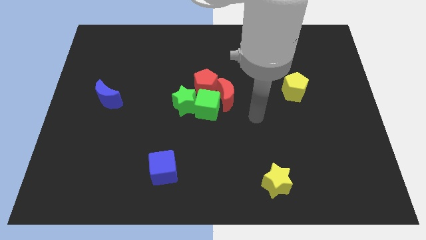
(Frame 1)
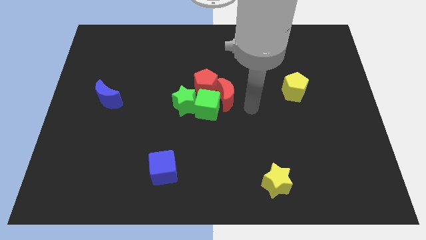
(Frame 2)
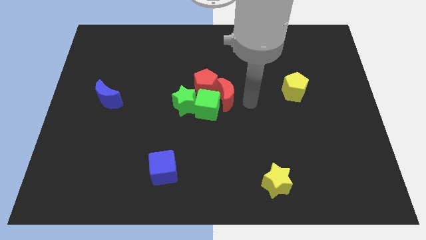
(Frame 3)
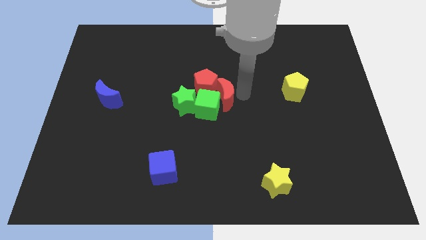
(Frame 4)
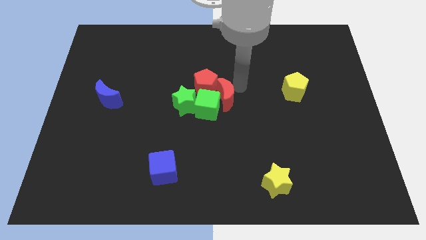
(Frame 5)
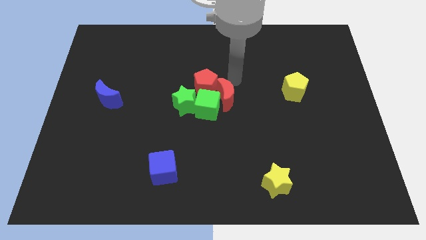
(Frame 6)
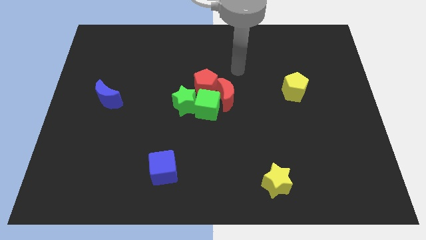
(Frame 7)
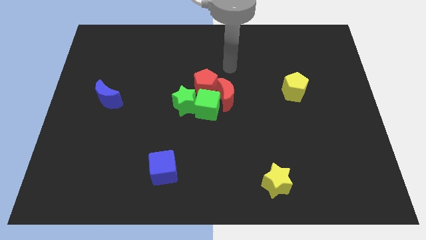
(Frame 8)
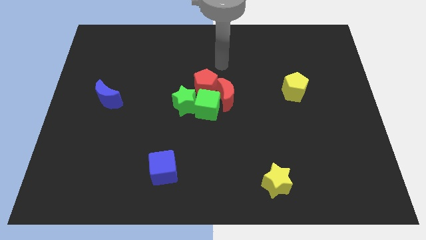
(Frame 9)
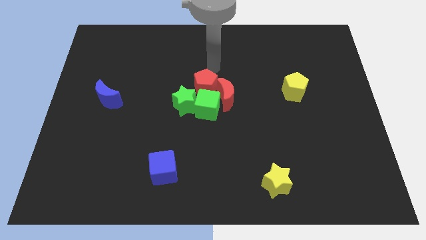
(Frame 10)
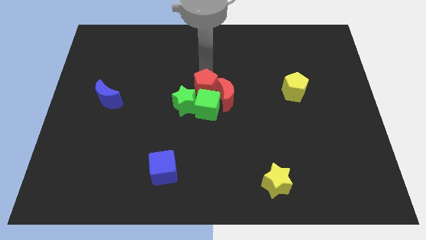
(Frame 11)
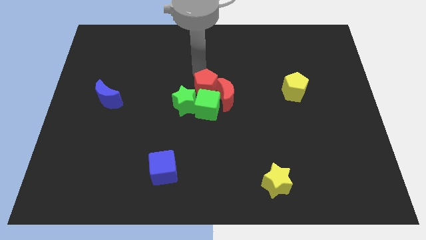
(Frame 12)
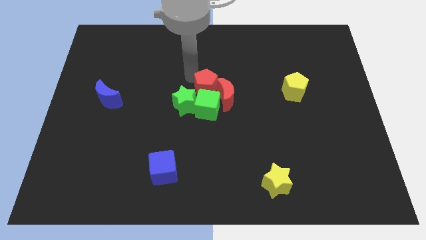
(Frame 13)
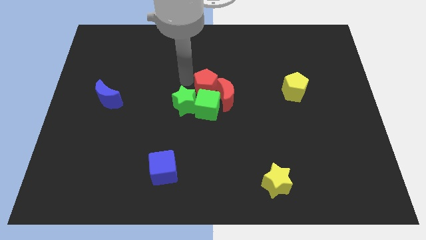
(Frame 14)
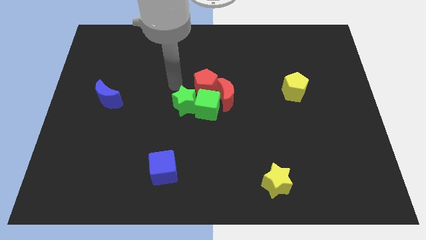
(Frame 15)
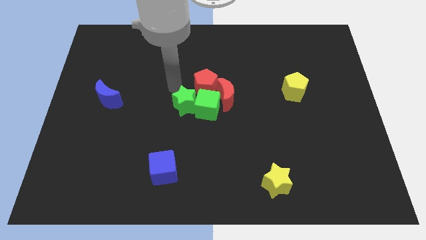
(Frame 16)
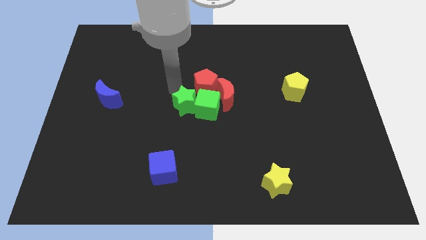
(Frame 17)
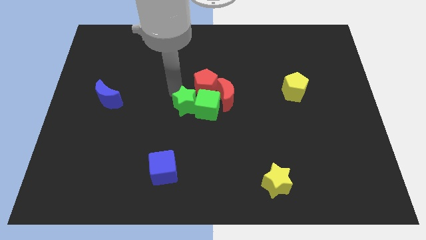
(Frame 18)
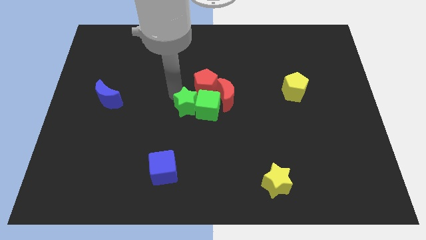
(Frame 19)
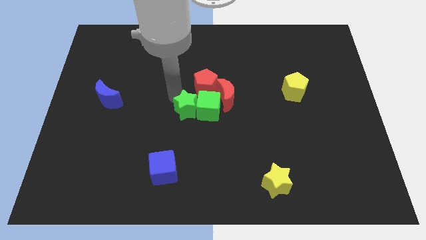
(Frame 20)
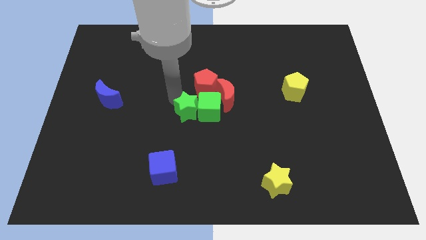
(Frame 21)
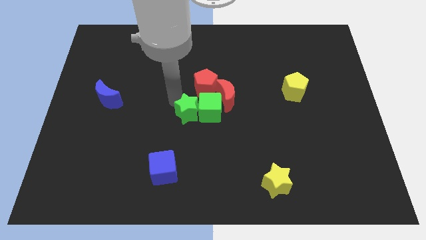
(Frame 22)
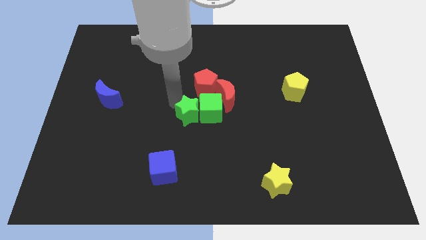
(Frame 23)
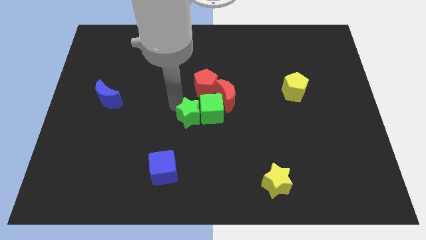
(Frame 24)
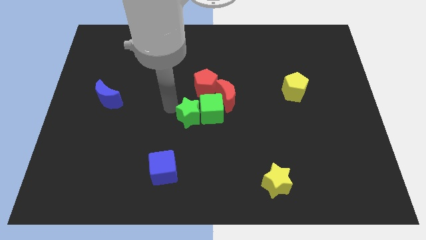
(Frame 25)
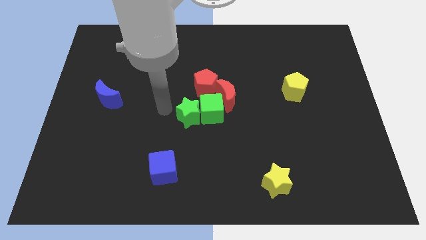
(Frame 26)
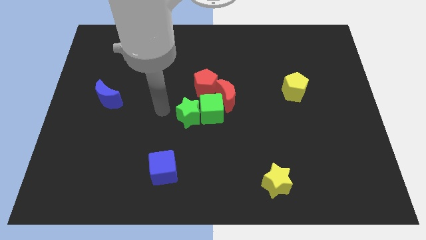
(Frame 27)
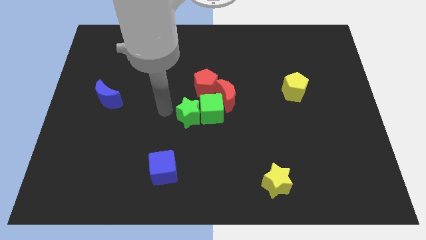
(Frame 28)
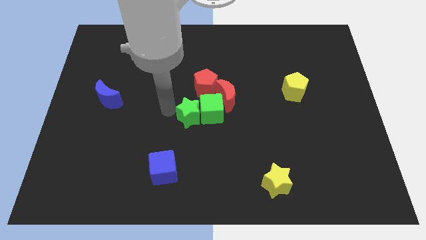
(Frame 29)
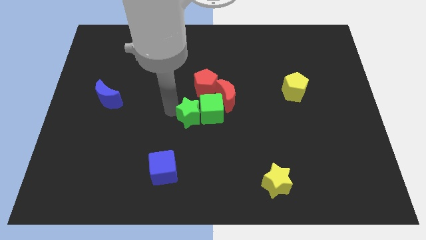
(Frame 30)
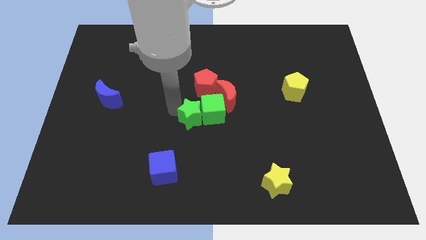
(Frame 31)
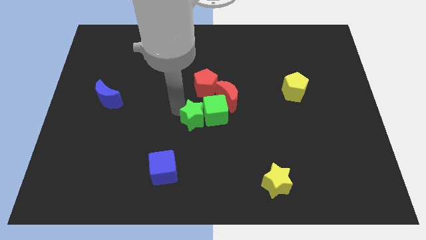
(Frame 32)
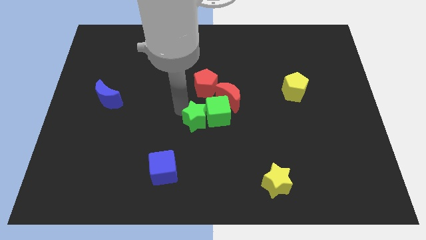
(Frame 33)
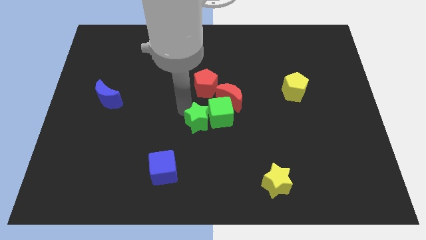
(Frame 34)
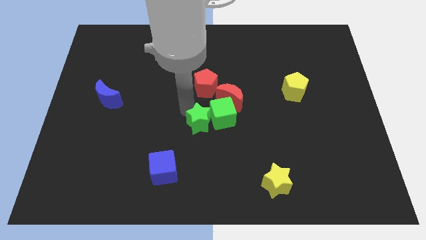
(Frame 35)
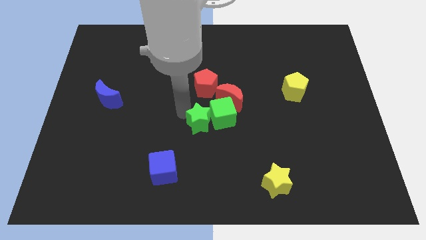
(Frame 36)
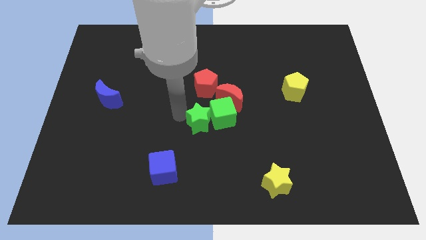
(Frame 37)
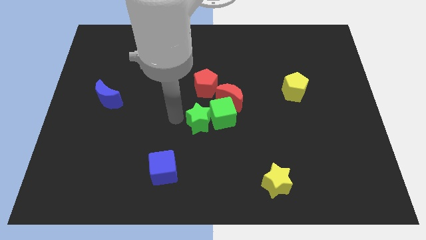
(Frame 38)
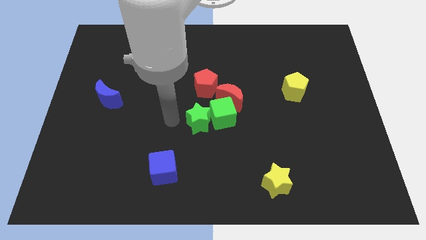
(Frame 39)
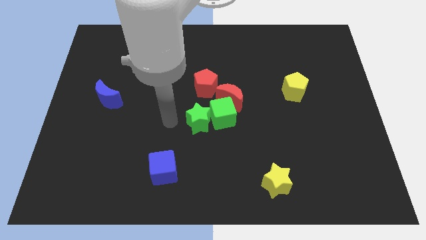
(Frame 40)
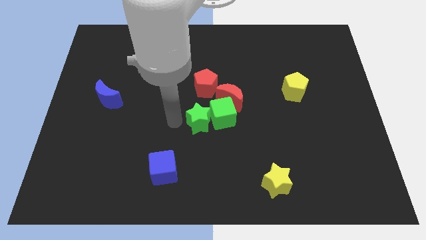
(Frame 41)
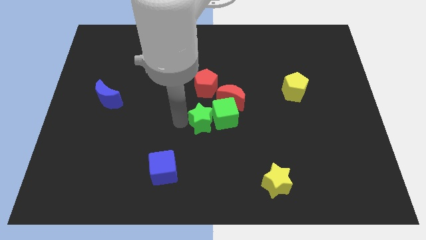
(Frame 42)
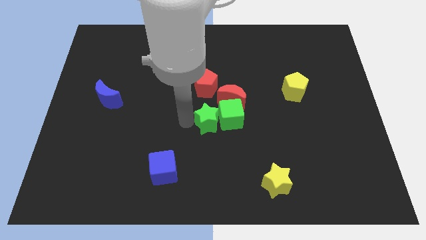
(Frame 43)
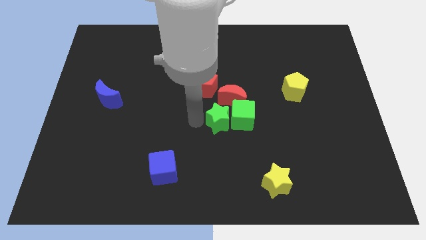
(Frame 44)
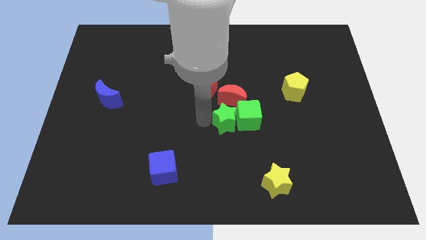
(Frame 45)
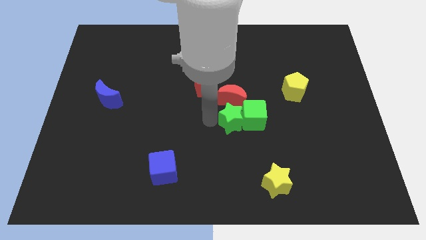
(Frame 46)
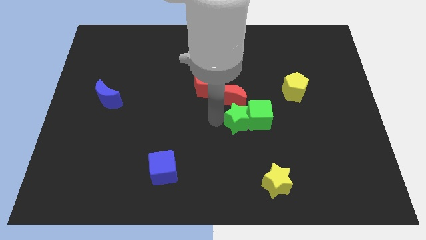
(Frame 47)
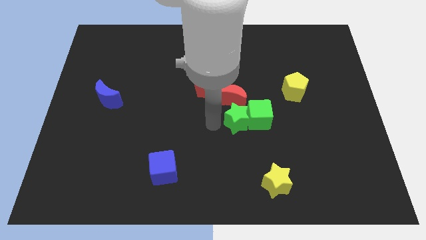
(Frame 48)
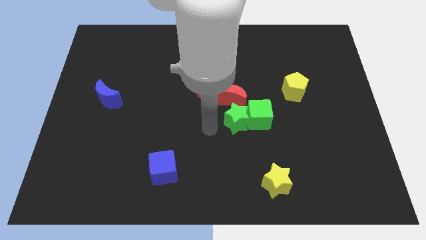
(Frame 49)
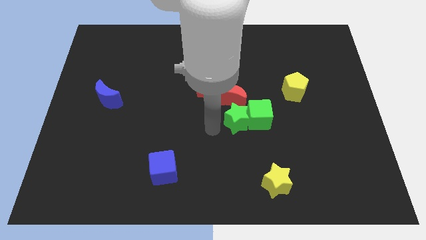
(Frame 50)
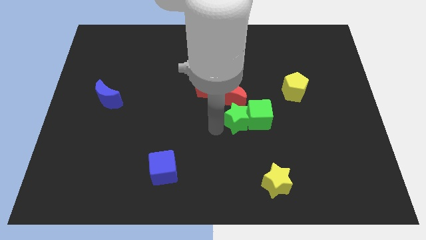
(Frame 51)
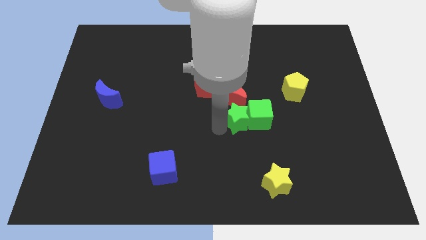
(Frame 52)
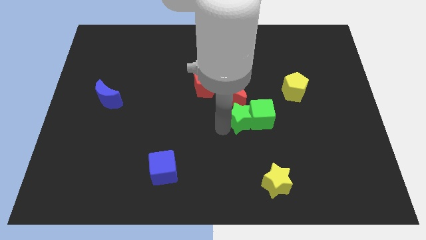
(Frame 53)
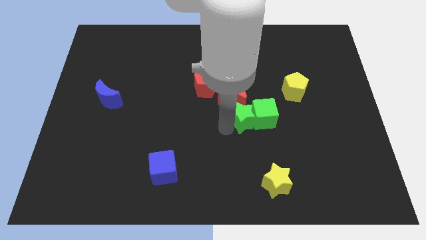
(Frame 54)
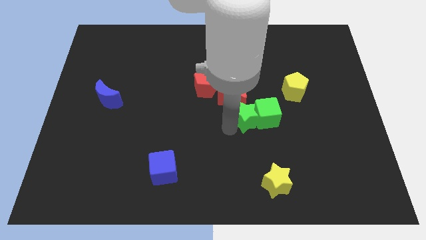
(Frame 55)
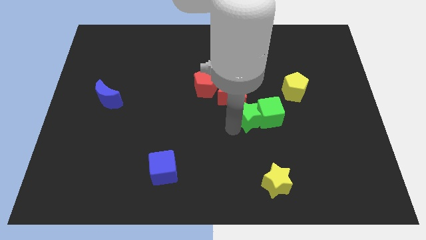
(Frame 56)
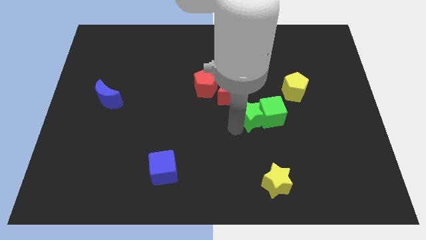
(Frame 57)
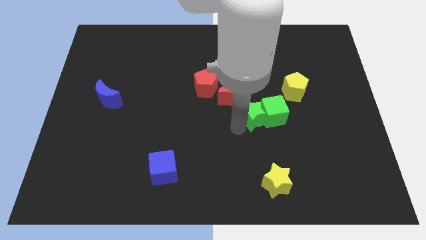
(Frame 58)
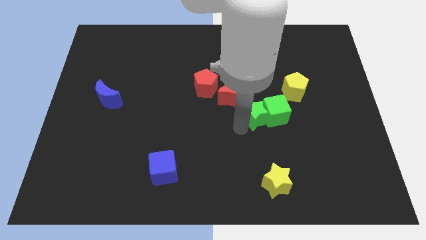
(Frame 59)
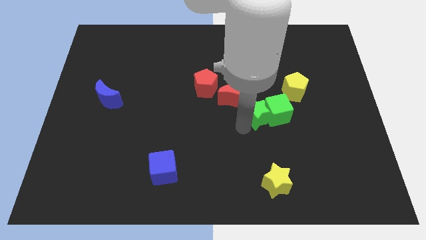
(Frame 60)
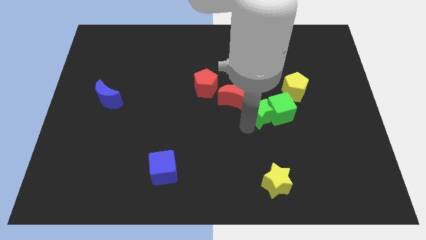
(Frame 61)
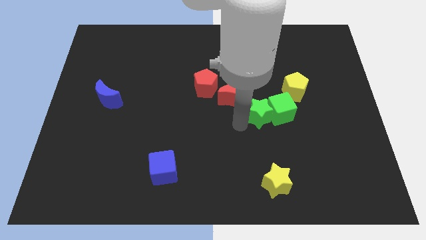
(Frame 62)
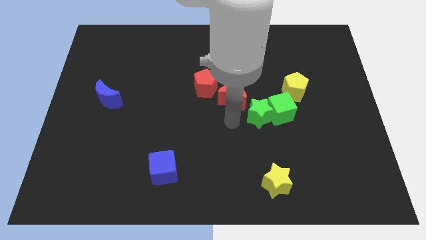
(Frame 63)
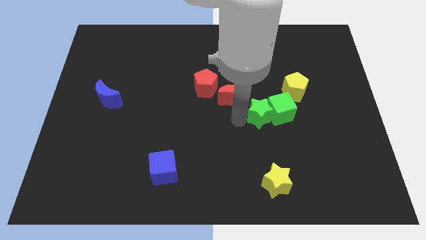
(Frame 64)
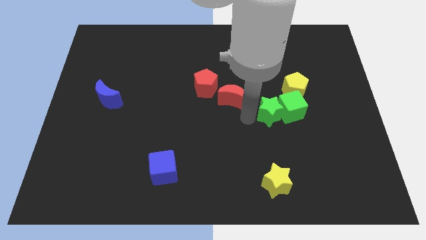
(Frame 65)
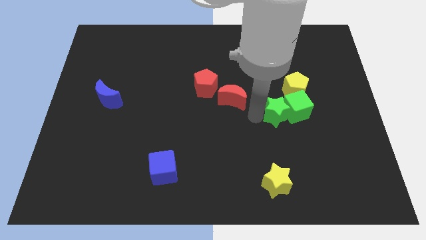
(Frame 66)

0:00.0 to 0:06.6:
slide the green star right

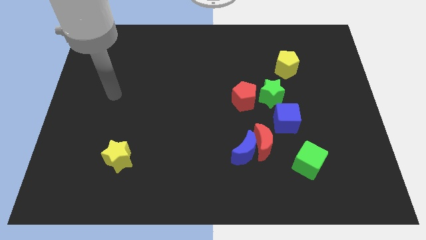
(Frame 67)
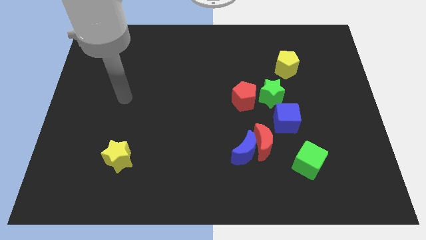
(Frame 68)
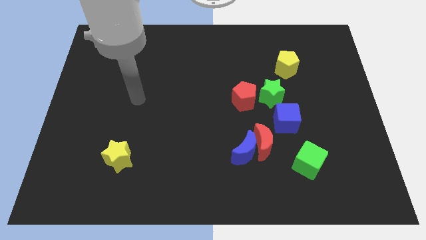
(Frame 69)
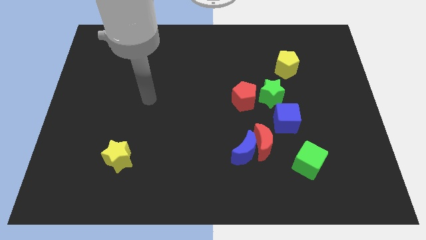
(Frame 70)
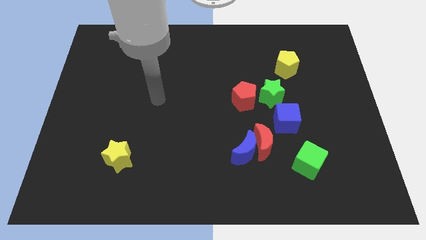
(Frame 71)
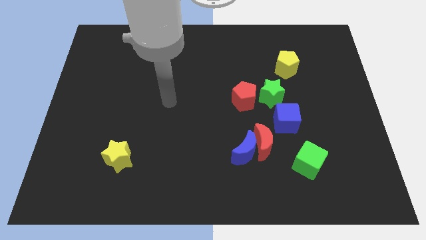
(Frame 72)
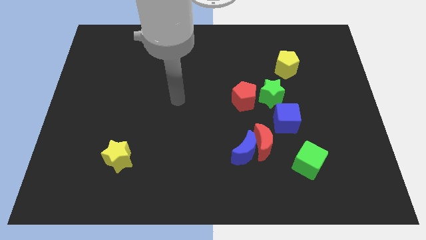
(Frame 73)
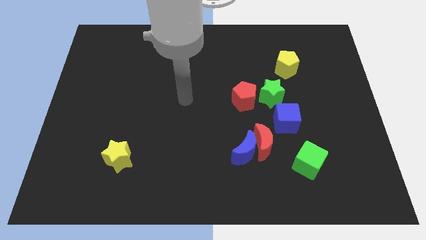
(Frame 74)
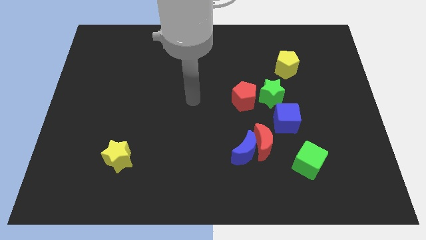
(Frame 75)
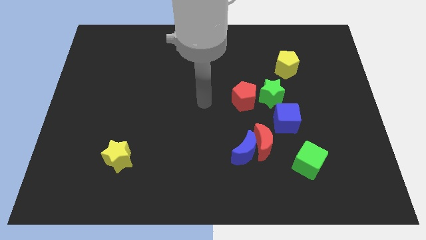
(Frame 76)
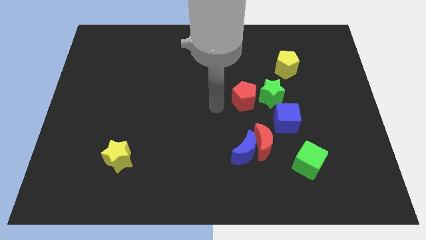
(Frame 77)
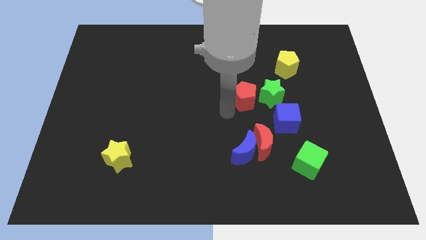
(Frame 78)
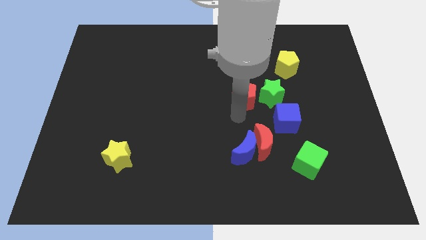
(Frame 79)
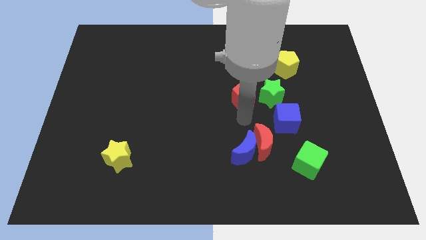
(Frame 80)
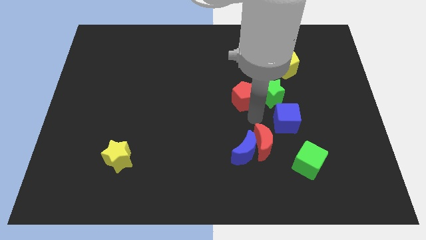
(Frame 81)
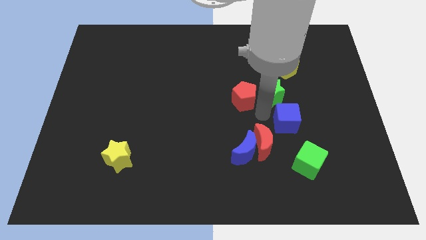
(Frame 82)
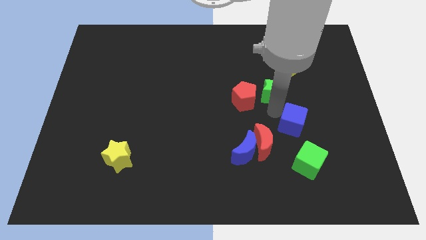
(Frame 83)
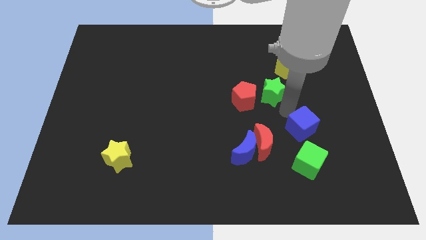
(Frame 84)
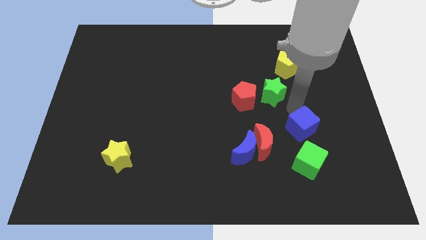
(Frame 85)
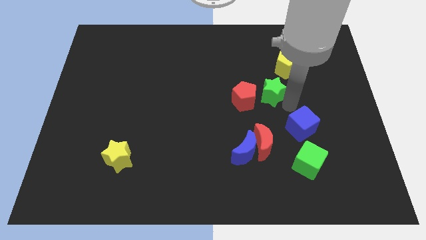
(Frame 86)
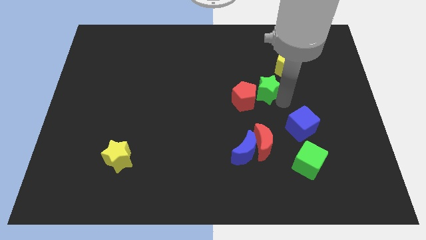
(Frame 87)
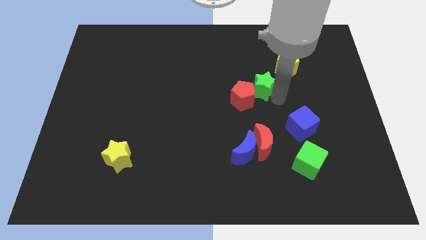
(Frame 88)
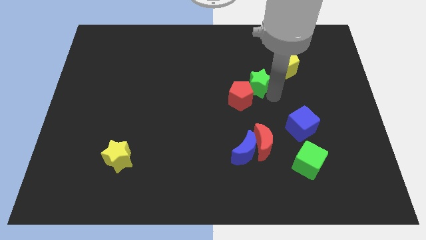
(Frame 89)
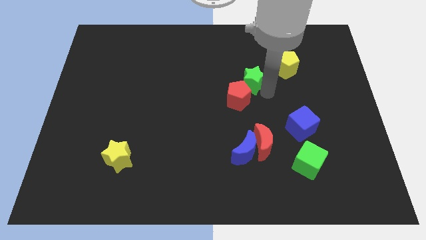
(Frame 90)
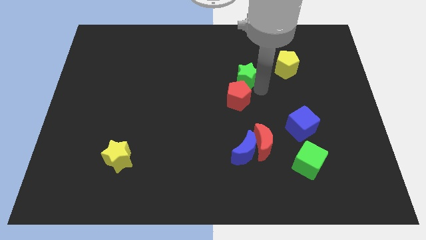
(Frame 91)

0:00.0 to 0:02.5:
push the green star diagonally upwards and to the left a bit
